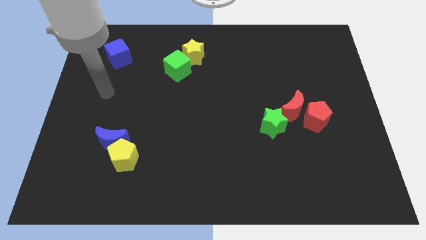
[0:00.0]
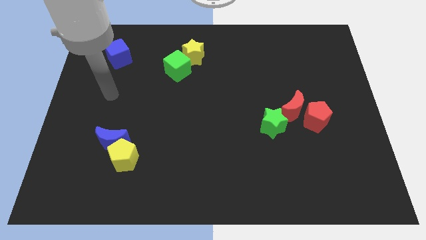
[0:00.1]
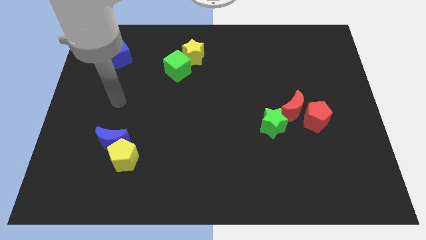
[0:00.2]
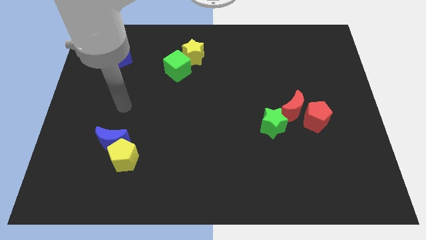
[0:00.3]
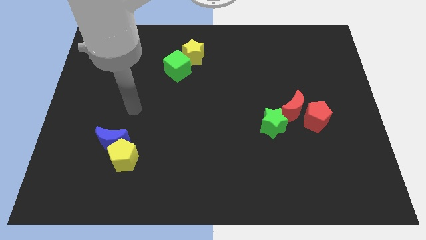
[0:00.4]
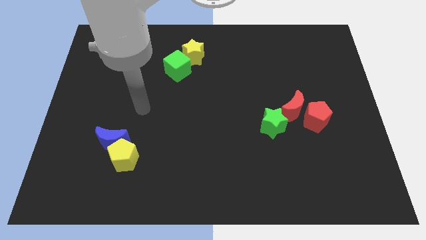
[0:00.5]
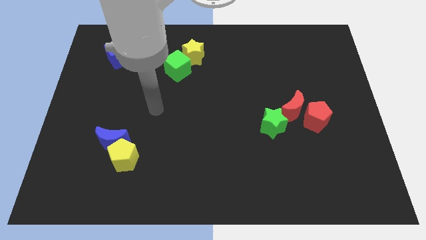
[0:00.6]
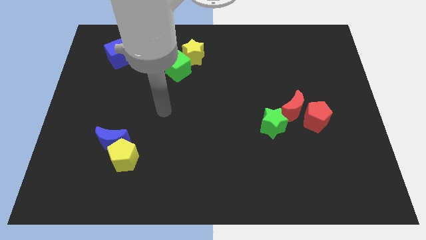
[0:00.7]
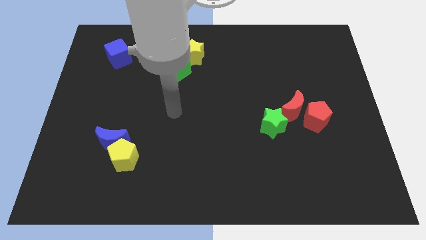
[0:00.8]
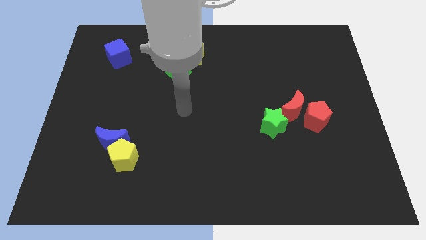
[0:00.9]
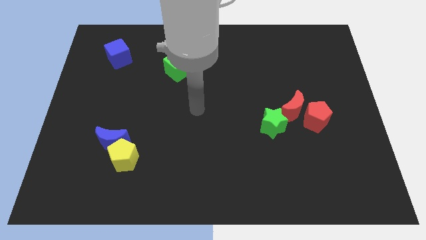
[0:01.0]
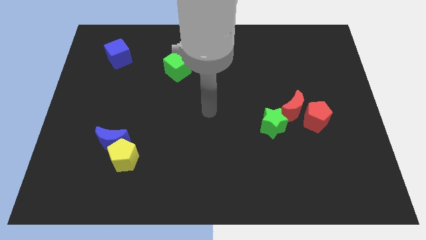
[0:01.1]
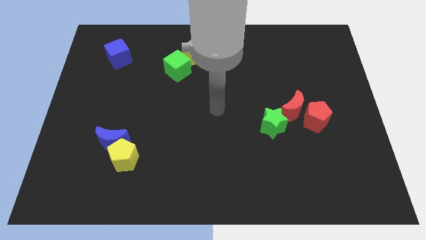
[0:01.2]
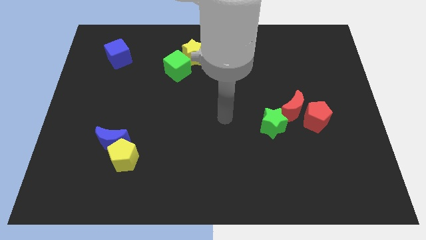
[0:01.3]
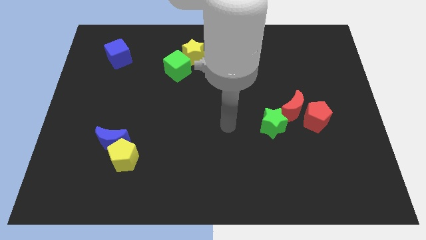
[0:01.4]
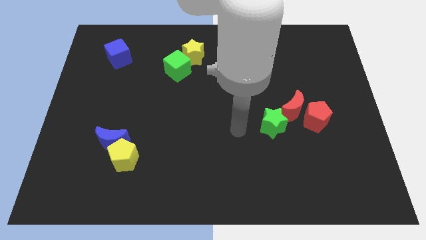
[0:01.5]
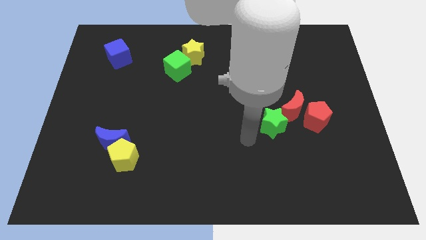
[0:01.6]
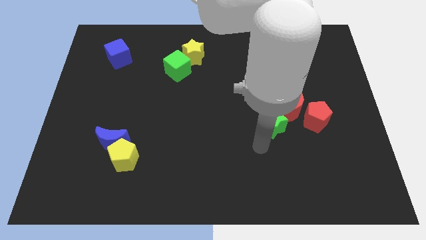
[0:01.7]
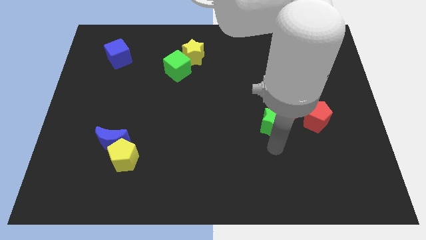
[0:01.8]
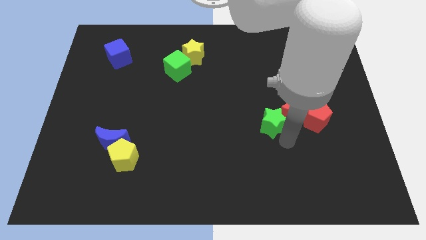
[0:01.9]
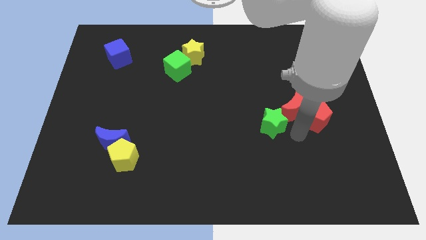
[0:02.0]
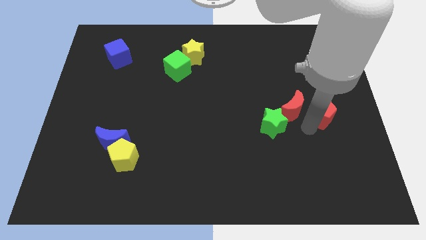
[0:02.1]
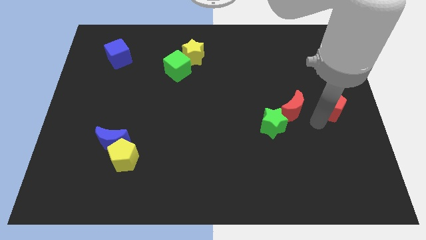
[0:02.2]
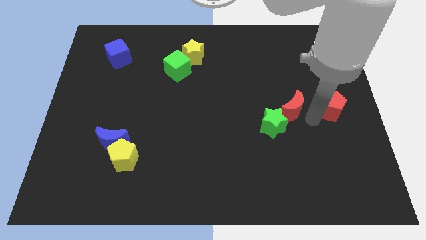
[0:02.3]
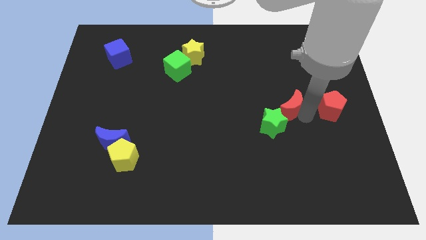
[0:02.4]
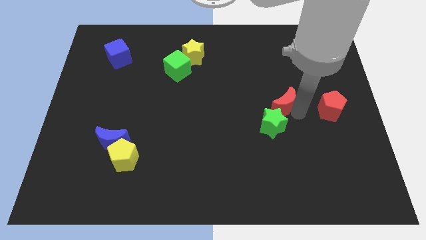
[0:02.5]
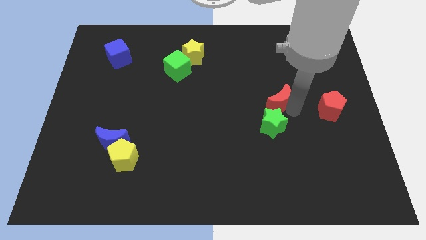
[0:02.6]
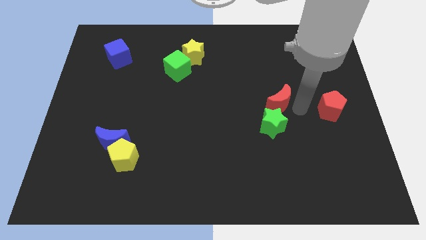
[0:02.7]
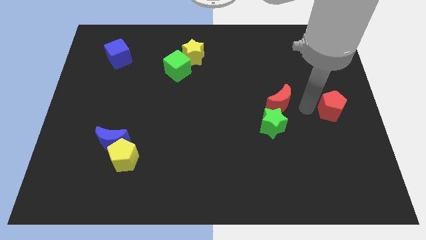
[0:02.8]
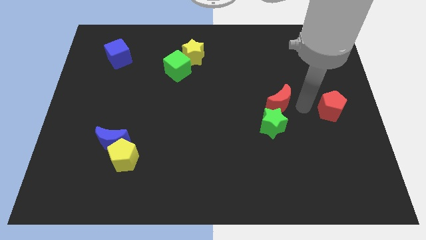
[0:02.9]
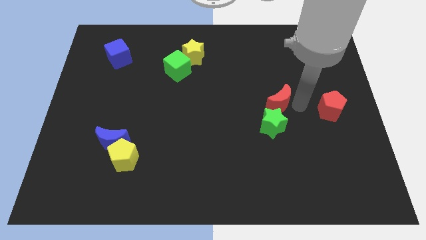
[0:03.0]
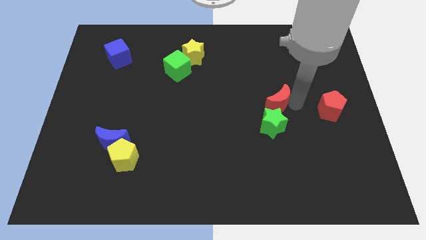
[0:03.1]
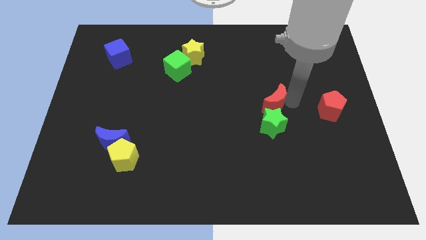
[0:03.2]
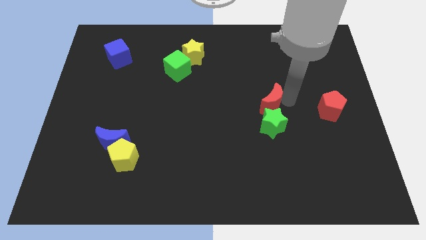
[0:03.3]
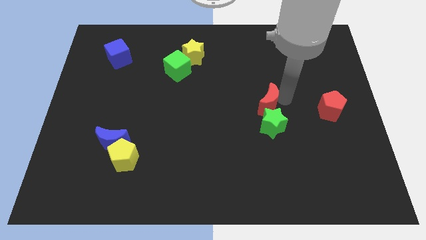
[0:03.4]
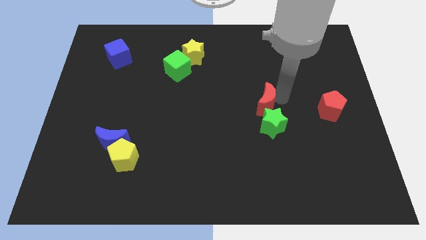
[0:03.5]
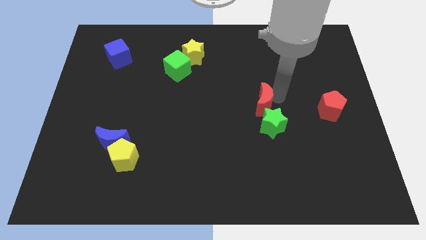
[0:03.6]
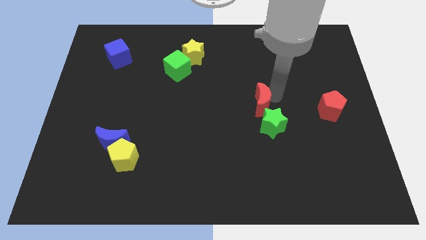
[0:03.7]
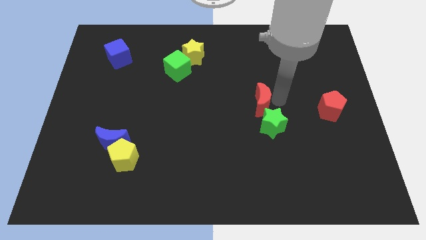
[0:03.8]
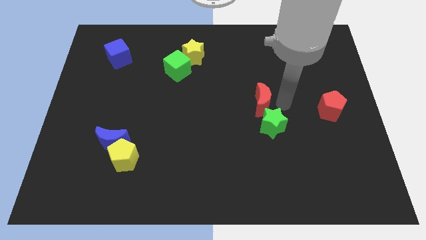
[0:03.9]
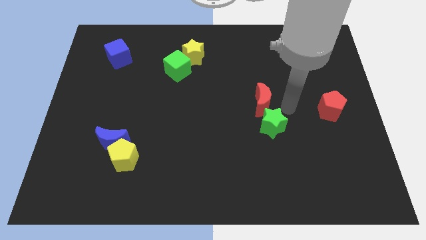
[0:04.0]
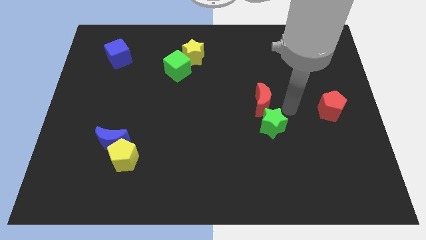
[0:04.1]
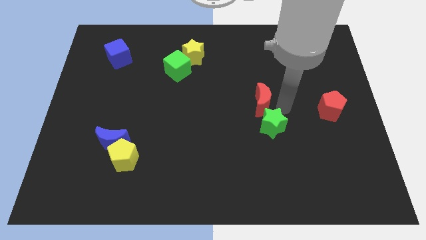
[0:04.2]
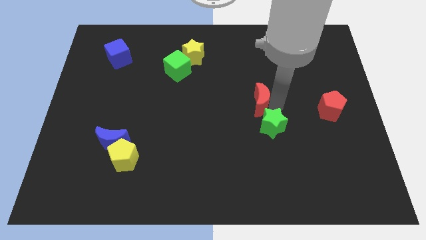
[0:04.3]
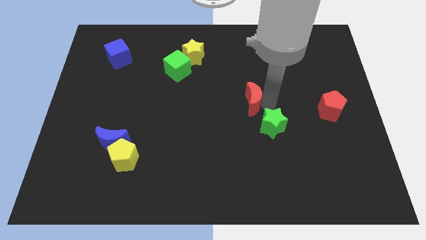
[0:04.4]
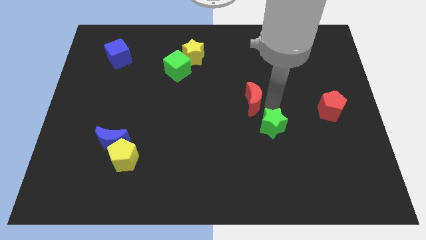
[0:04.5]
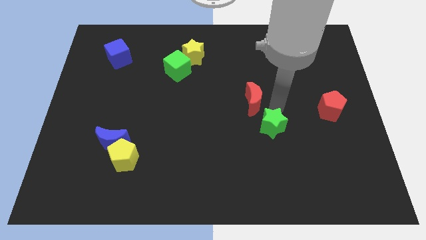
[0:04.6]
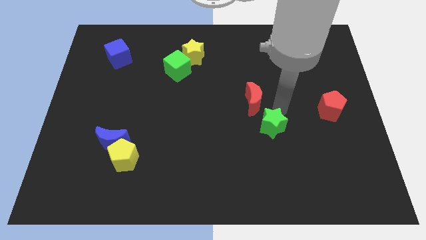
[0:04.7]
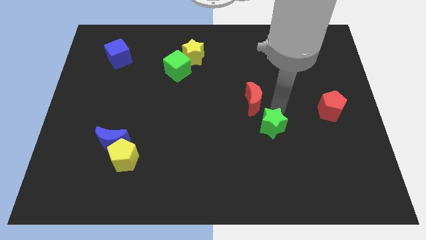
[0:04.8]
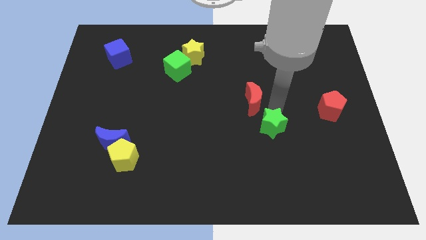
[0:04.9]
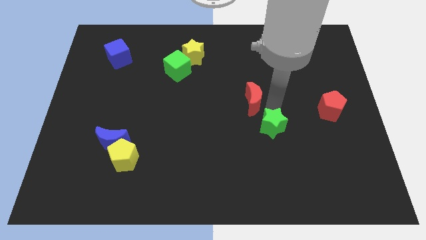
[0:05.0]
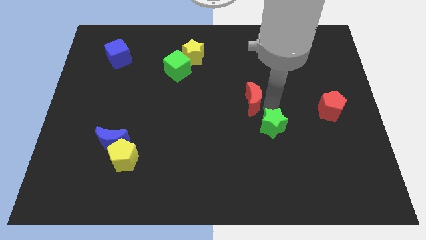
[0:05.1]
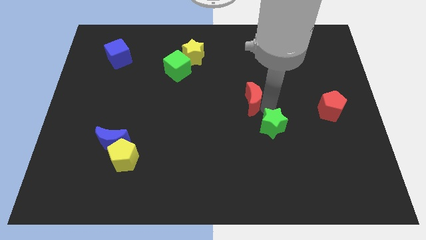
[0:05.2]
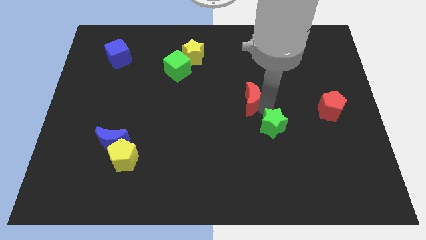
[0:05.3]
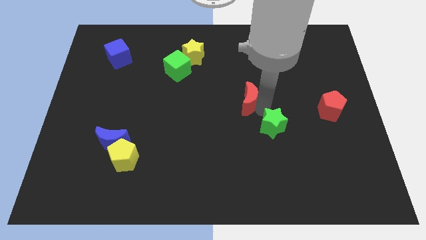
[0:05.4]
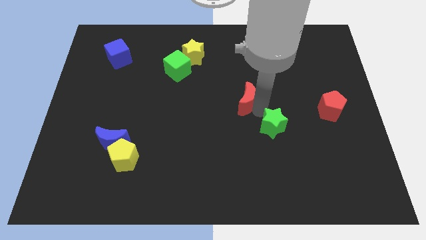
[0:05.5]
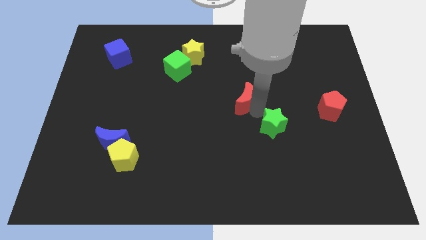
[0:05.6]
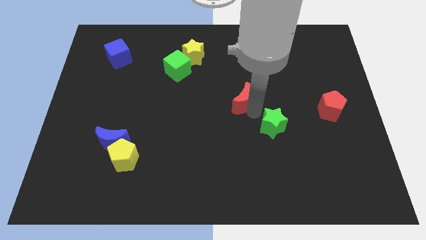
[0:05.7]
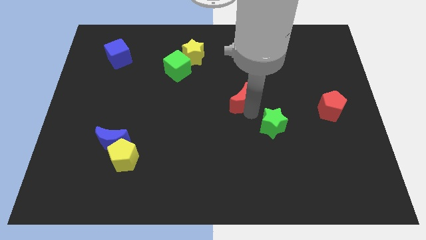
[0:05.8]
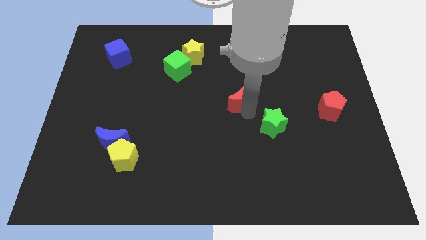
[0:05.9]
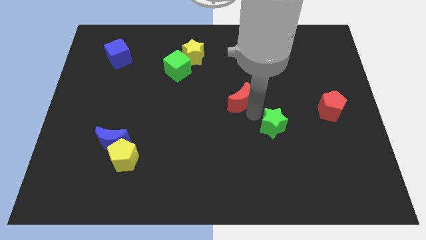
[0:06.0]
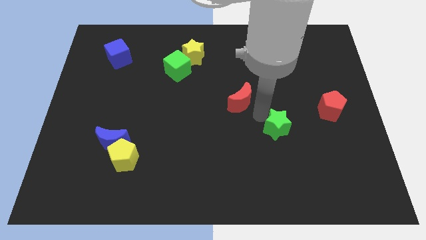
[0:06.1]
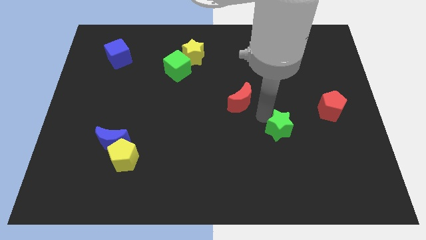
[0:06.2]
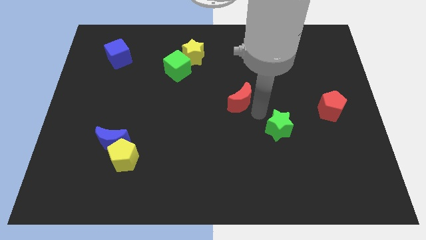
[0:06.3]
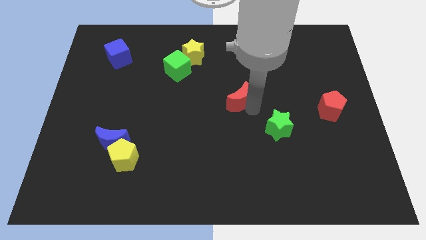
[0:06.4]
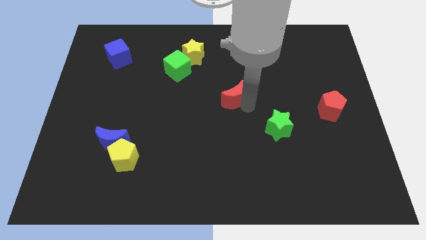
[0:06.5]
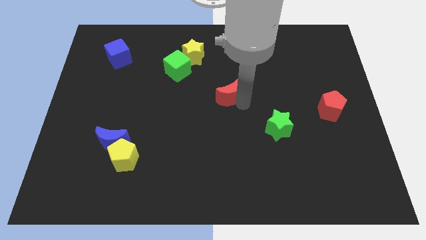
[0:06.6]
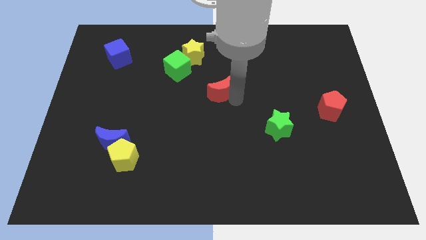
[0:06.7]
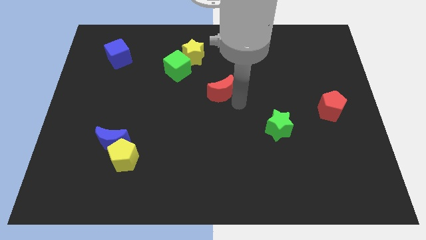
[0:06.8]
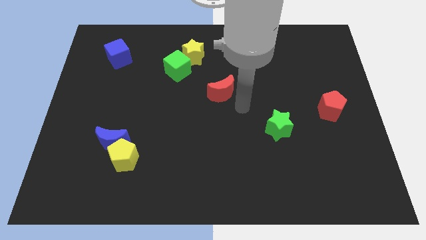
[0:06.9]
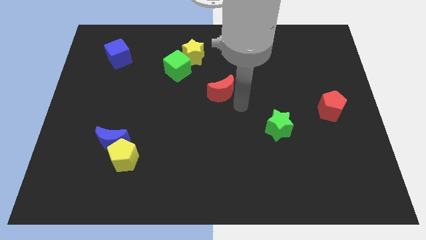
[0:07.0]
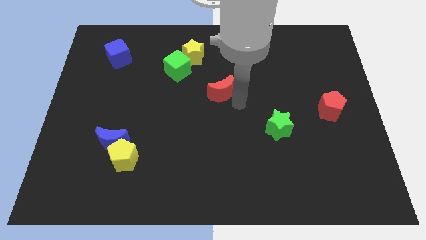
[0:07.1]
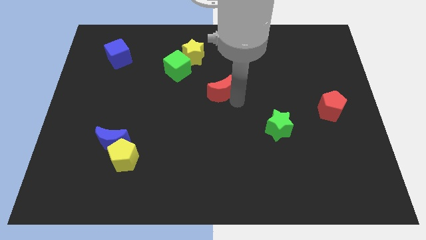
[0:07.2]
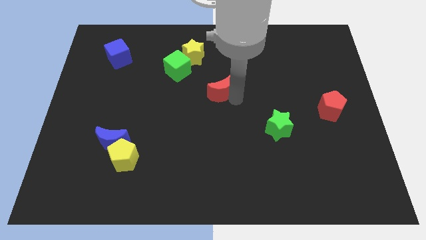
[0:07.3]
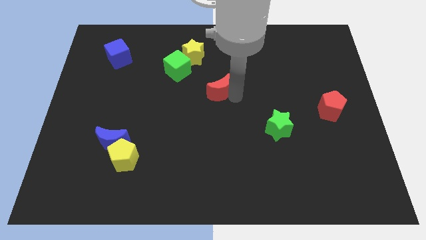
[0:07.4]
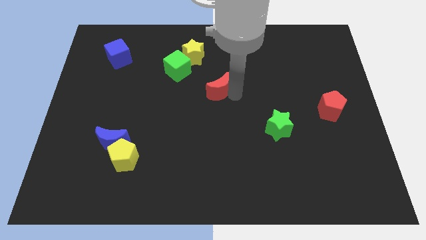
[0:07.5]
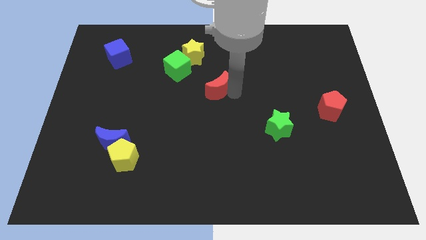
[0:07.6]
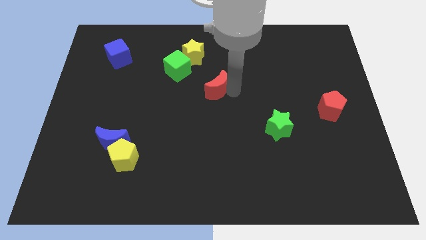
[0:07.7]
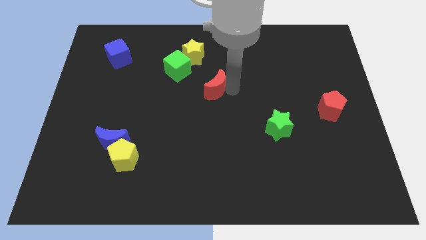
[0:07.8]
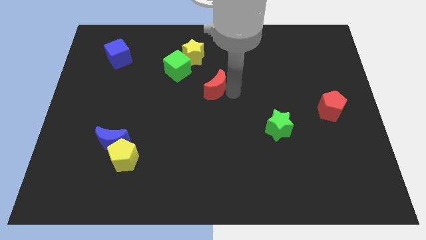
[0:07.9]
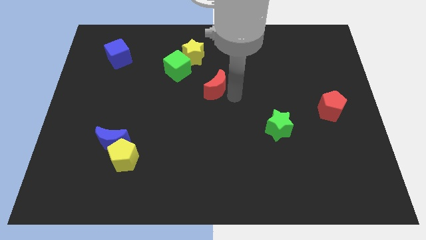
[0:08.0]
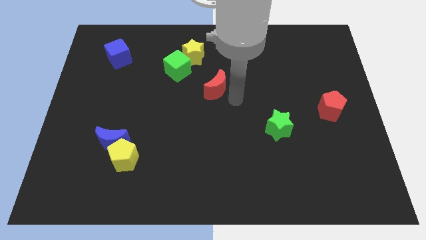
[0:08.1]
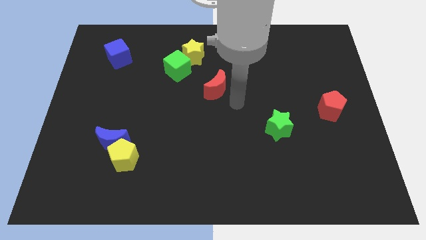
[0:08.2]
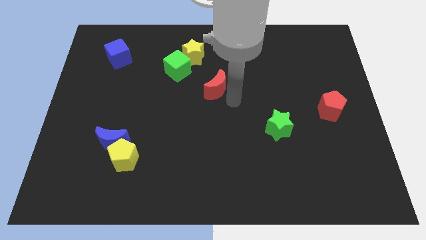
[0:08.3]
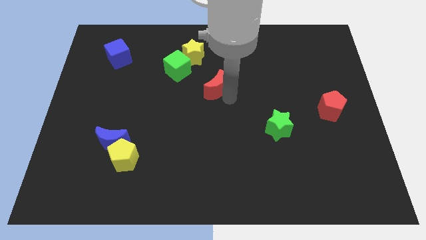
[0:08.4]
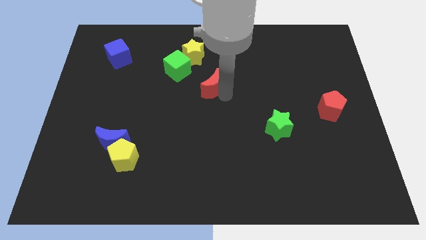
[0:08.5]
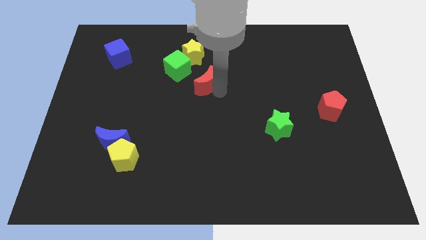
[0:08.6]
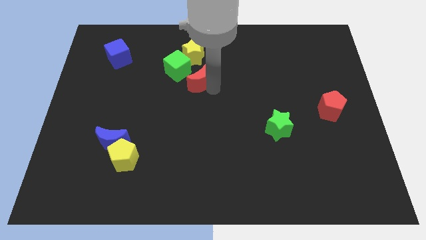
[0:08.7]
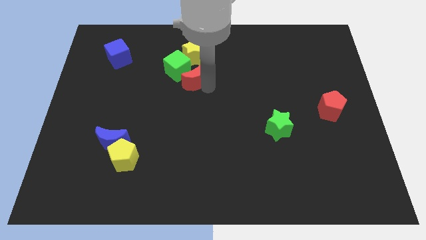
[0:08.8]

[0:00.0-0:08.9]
put the red moon to the green cube
